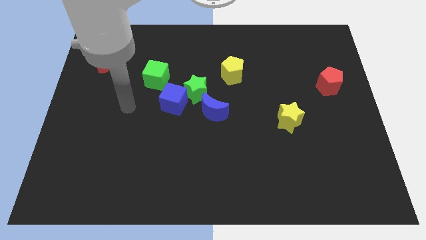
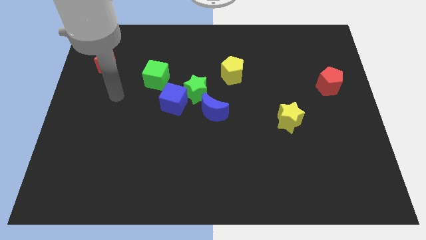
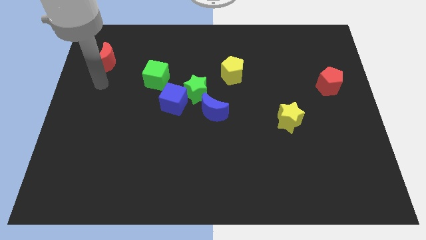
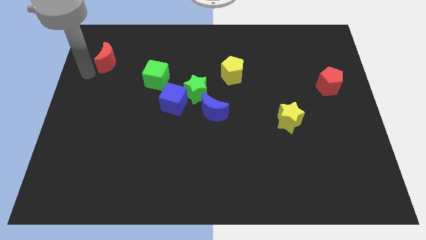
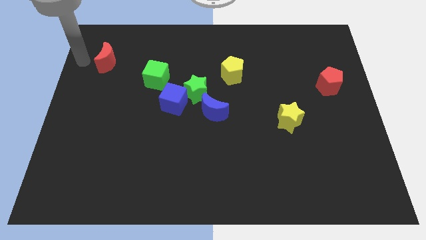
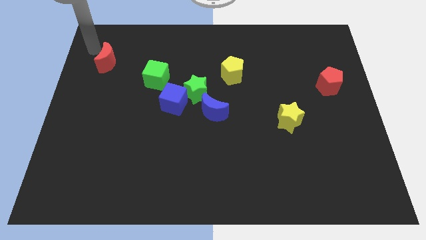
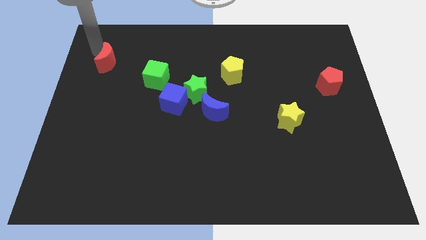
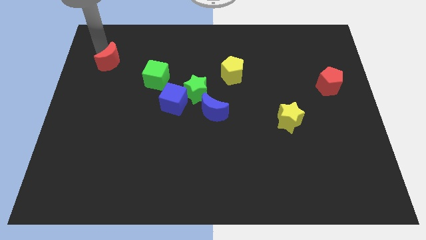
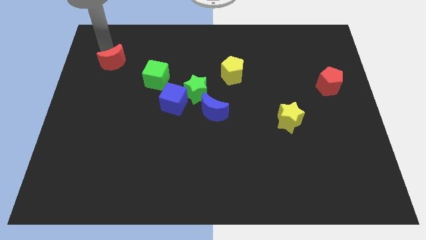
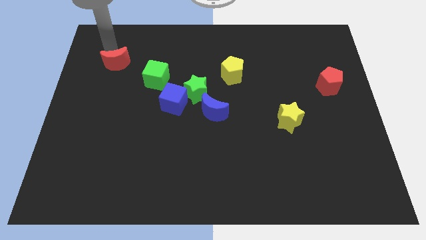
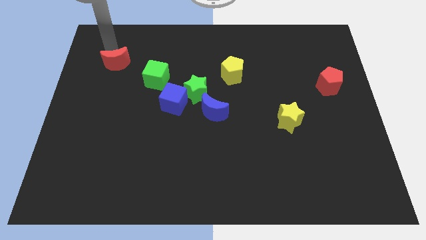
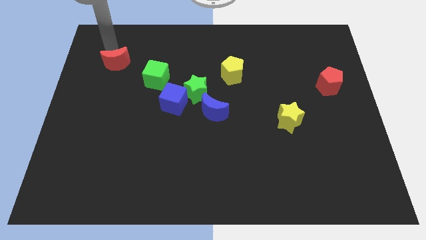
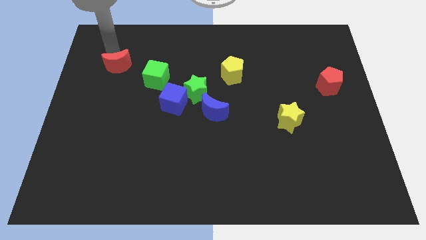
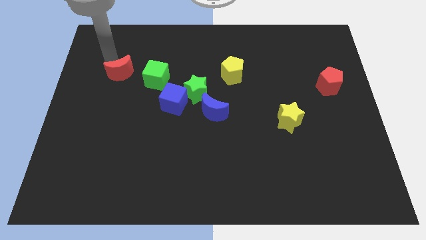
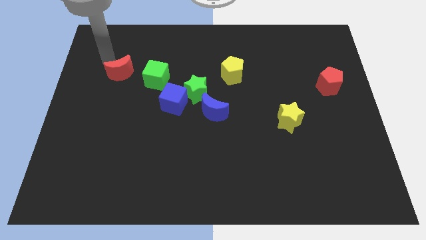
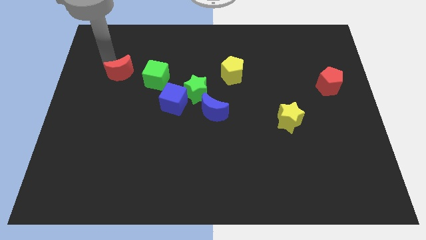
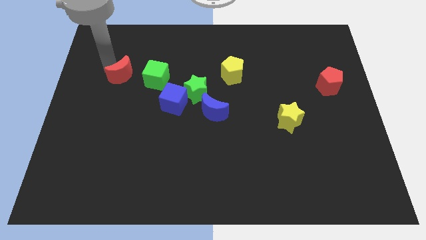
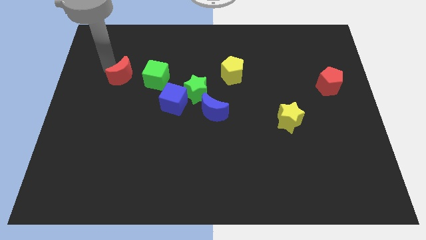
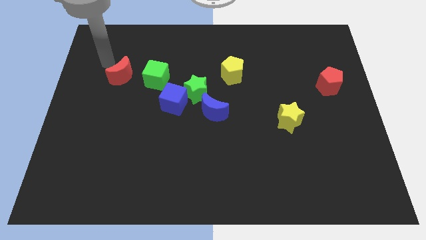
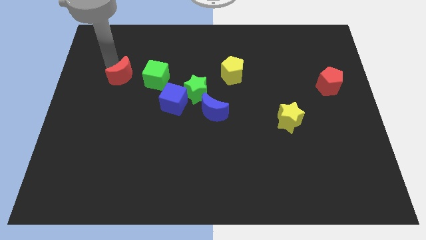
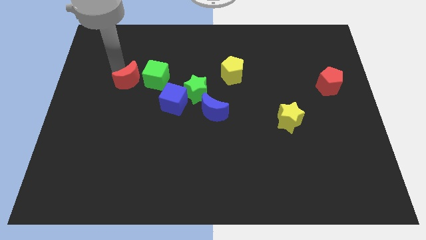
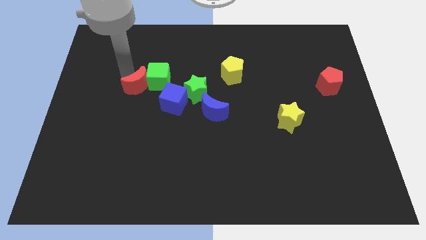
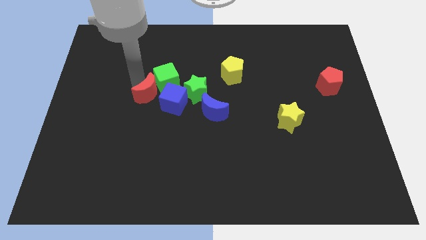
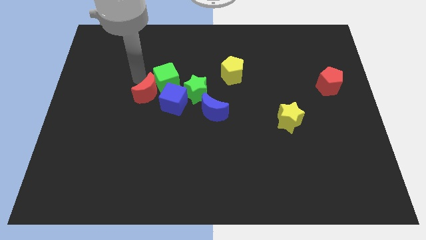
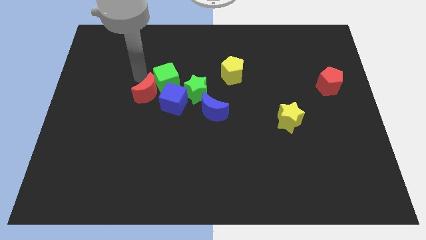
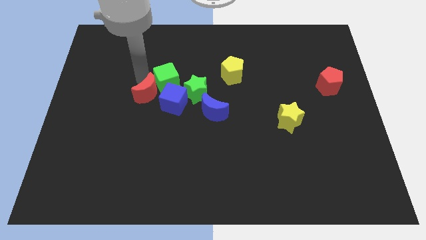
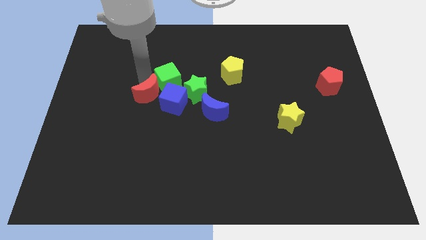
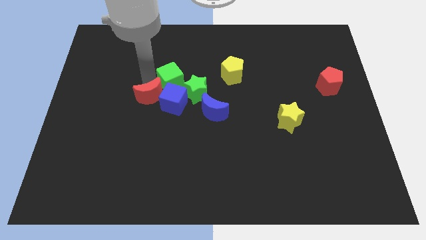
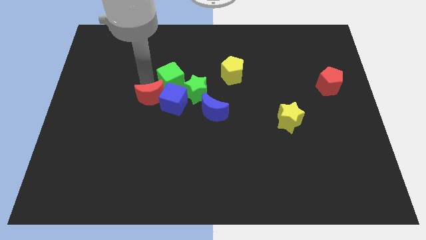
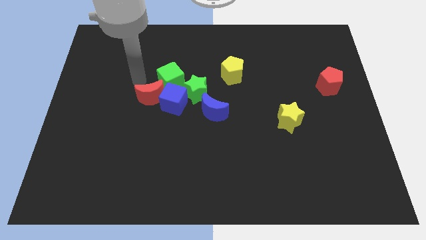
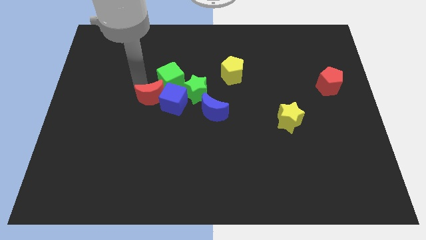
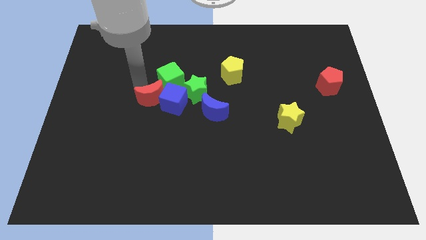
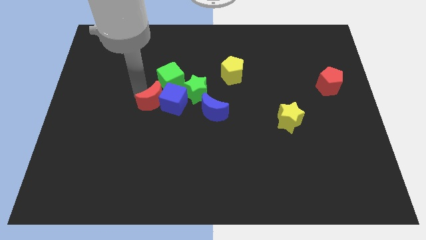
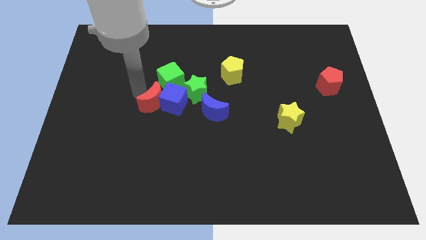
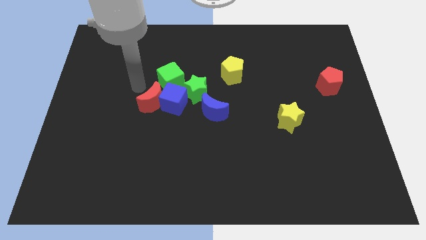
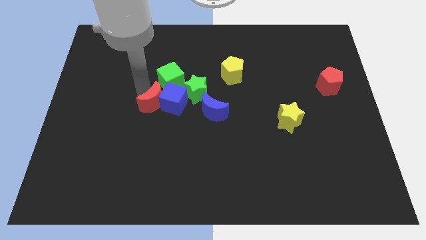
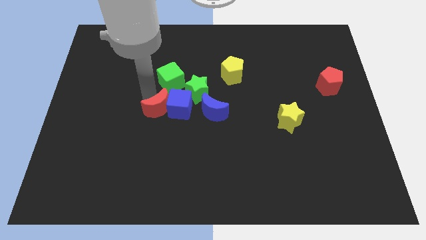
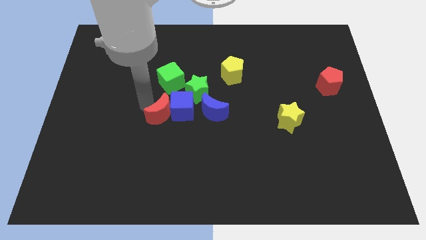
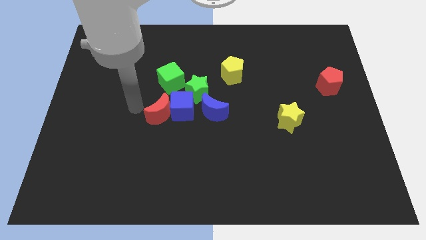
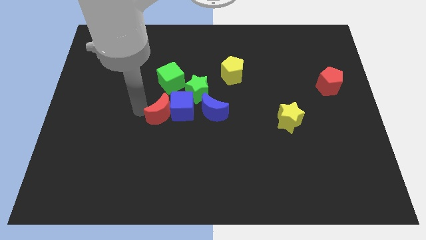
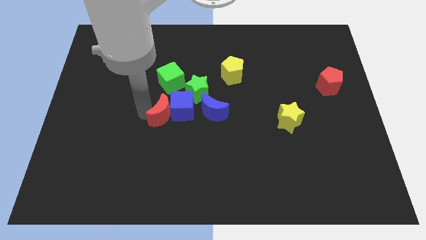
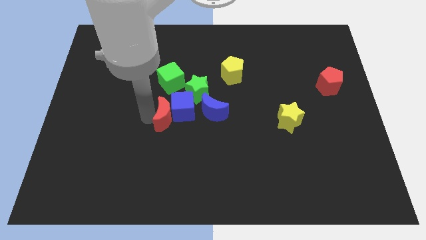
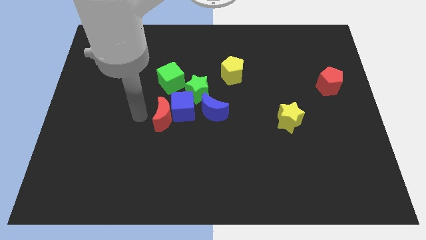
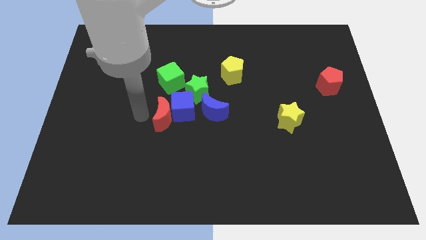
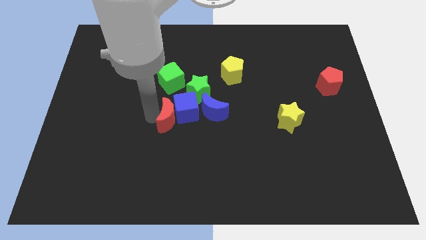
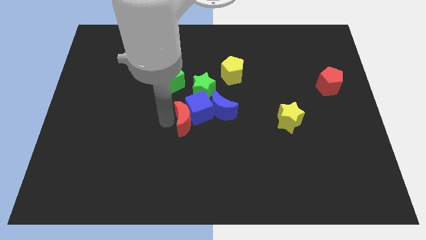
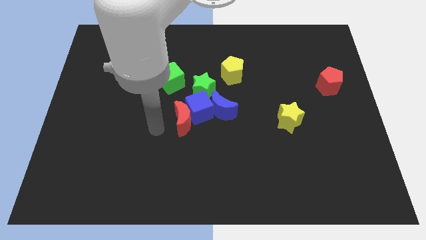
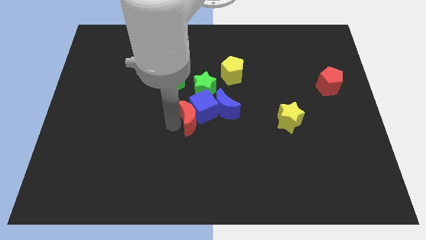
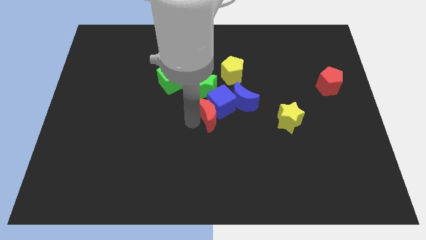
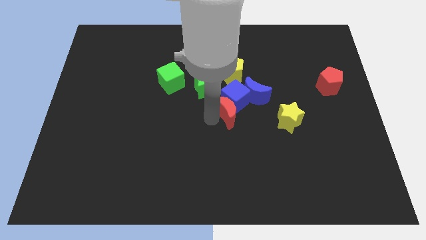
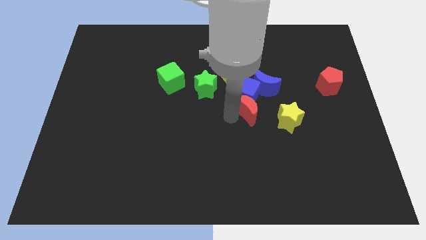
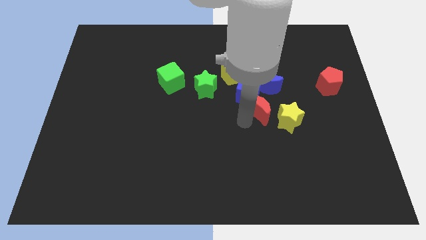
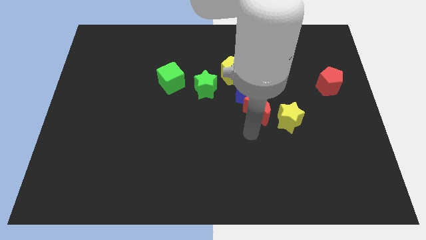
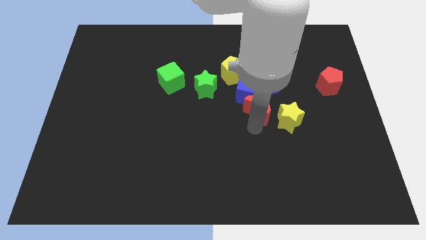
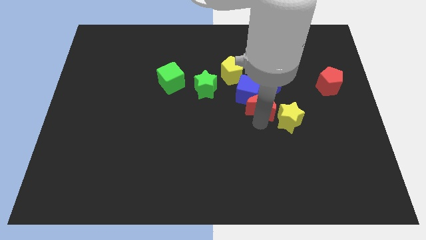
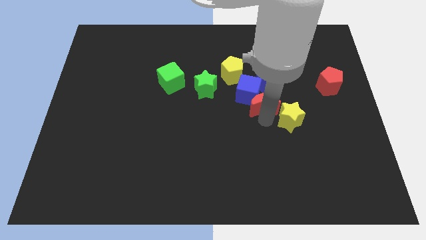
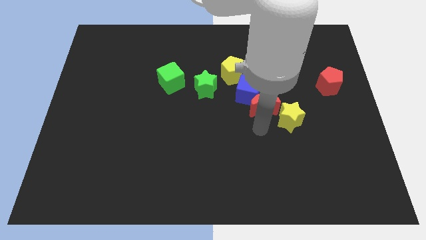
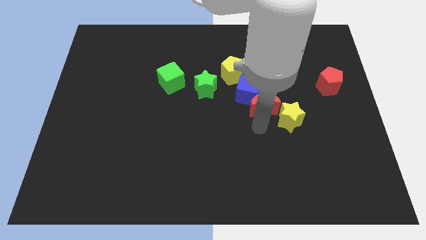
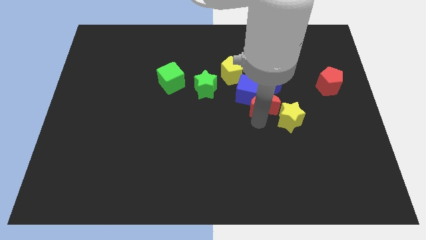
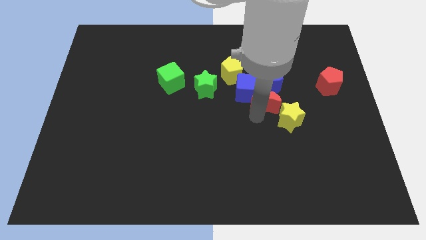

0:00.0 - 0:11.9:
push the red moon towards the blue moon

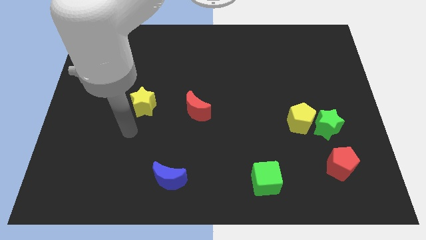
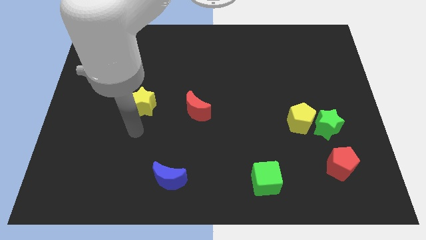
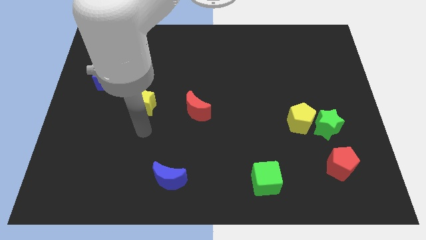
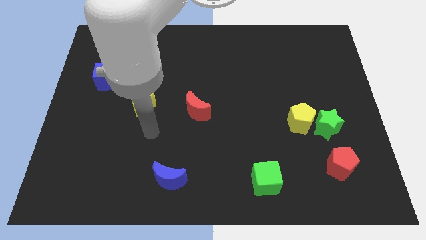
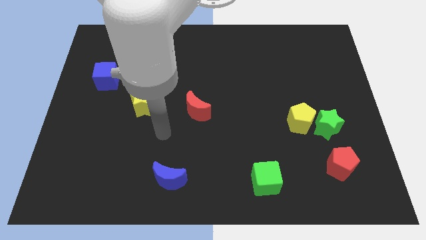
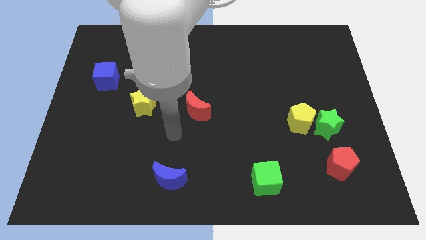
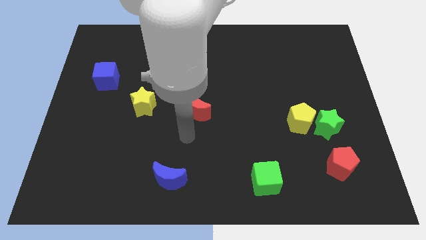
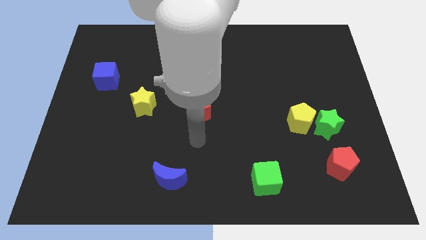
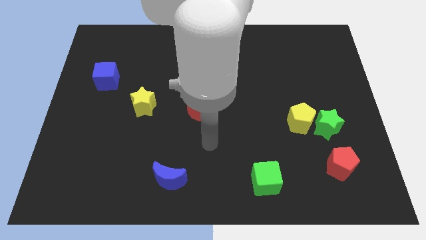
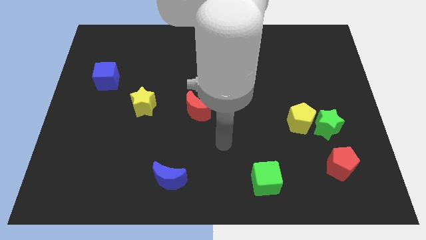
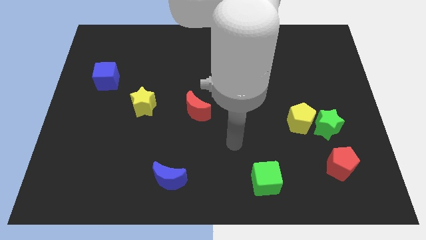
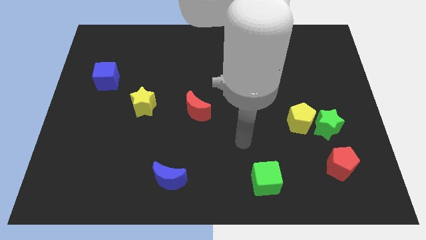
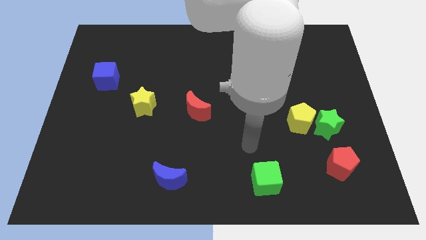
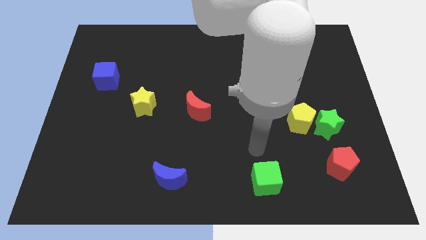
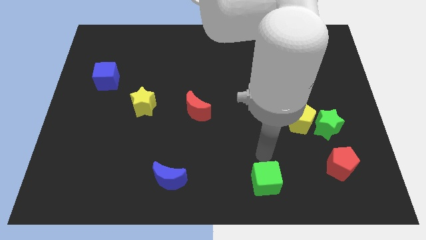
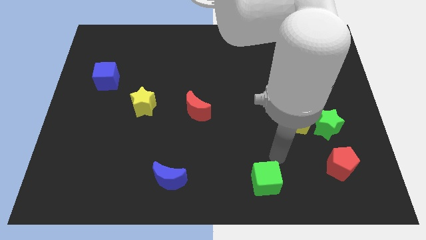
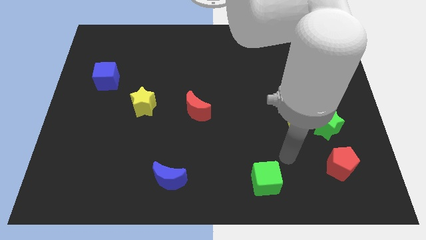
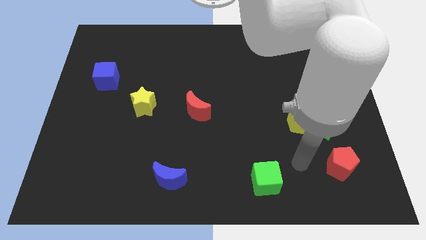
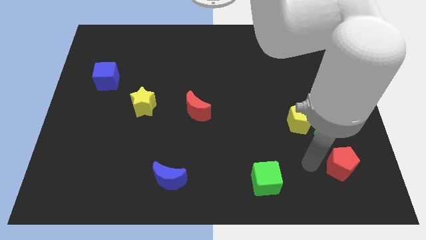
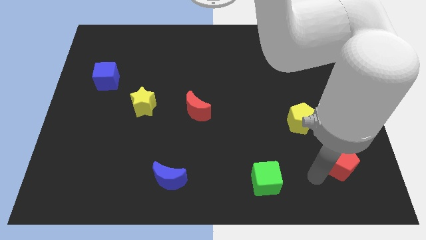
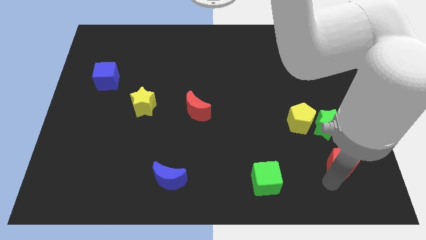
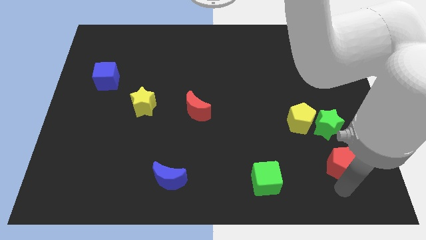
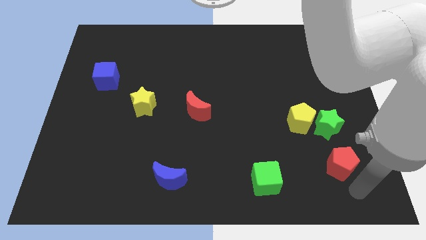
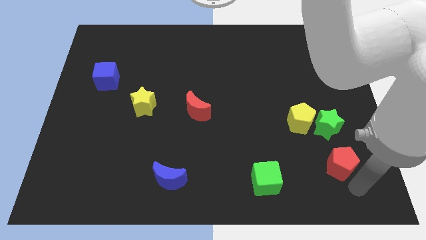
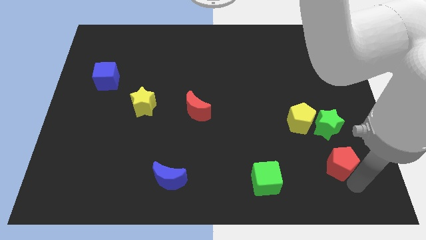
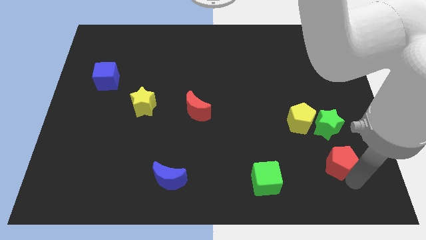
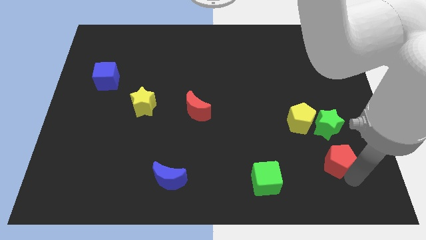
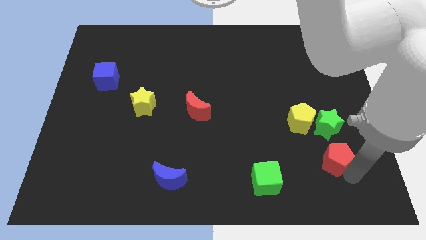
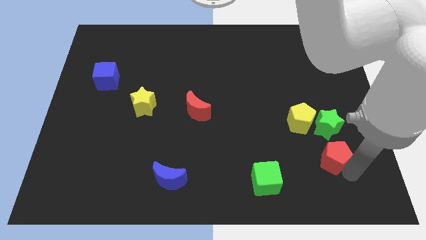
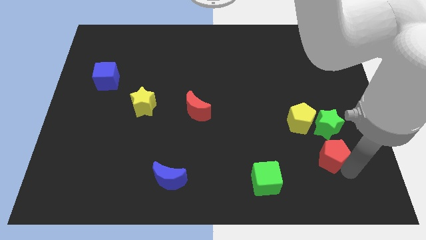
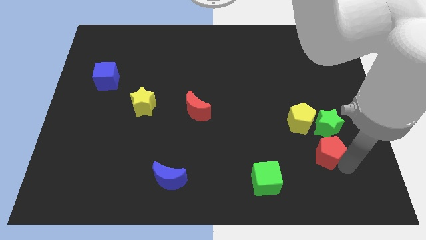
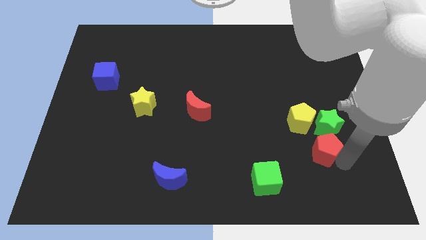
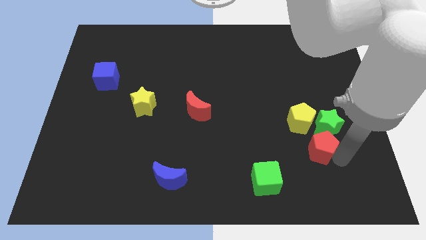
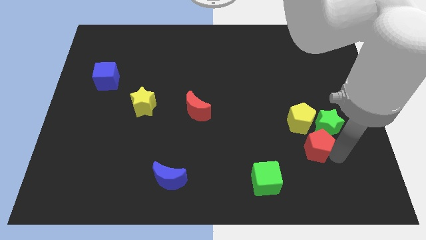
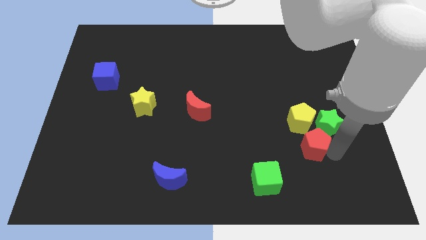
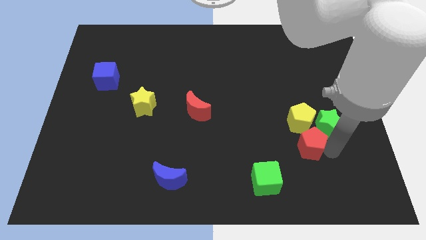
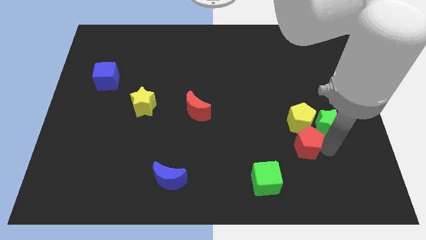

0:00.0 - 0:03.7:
put the red pentagon close to the yellow pentagon
